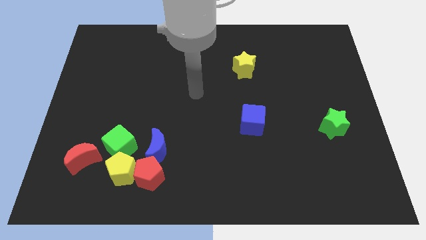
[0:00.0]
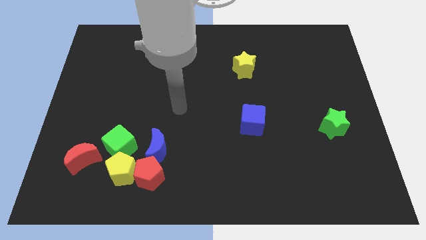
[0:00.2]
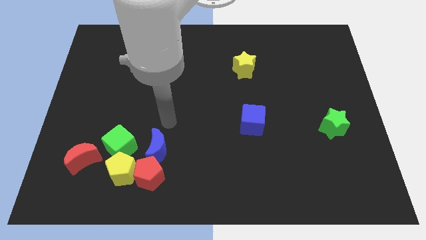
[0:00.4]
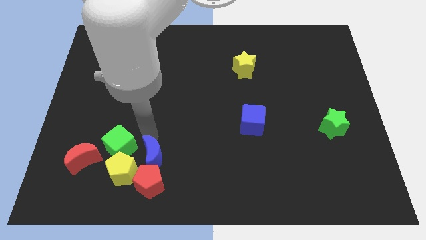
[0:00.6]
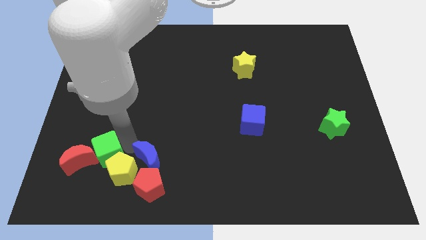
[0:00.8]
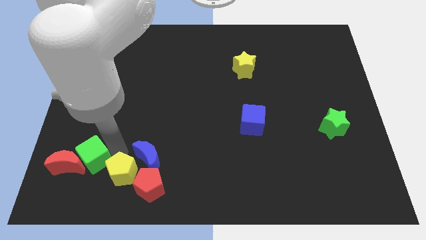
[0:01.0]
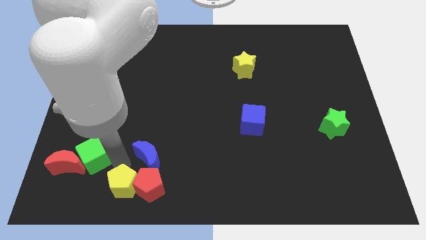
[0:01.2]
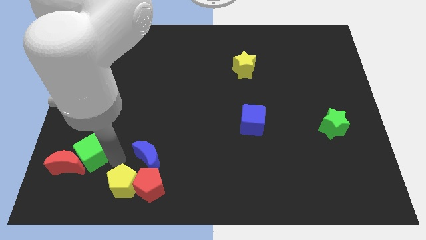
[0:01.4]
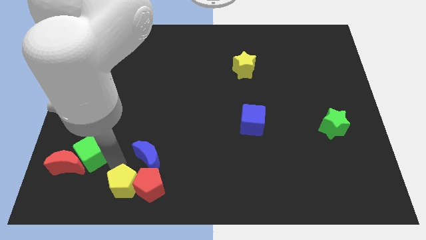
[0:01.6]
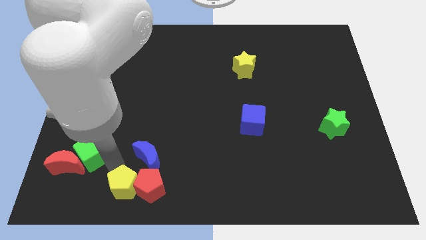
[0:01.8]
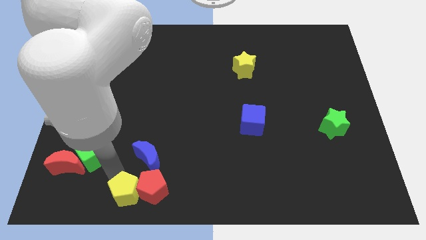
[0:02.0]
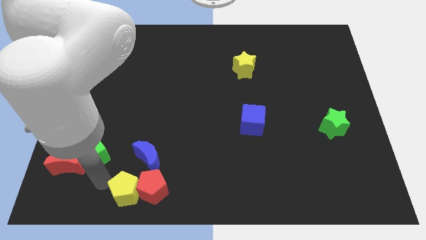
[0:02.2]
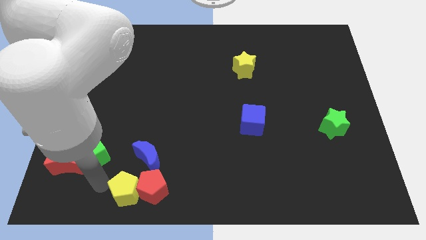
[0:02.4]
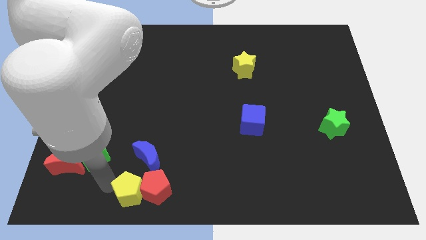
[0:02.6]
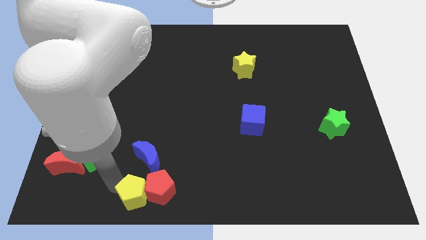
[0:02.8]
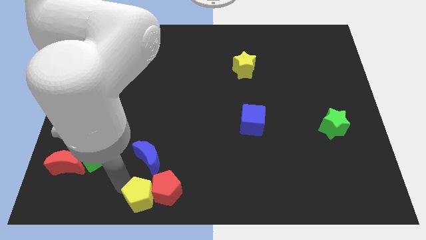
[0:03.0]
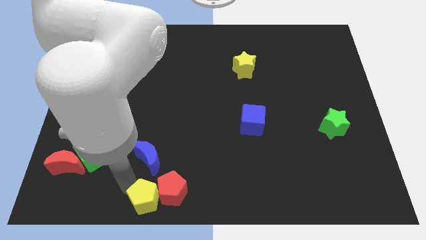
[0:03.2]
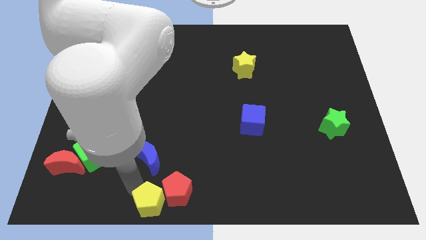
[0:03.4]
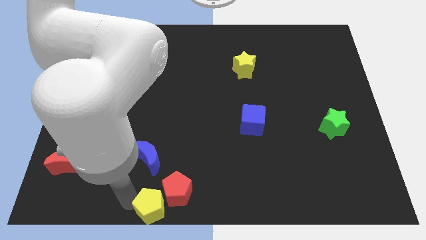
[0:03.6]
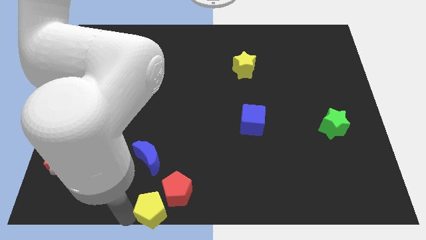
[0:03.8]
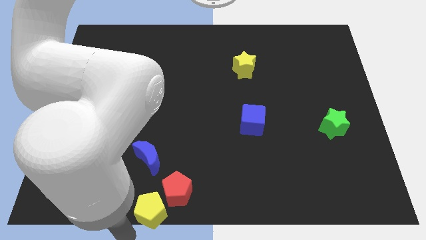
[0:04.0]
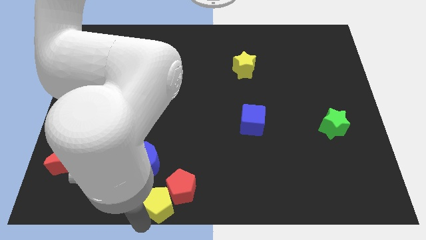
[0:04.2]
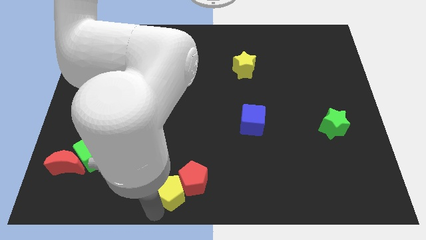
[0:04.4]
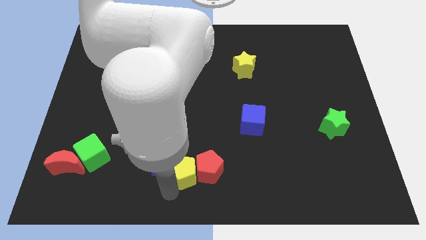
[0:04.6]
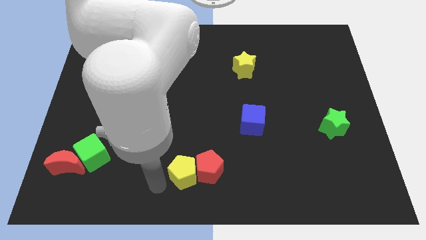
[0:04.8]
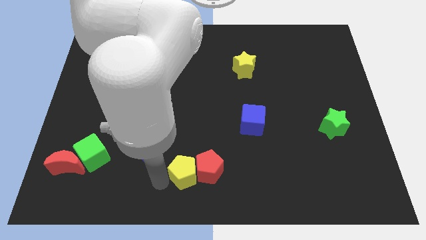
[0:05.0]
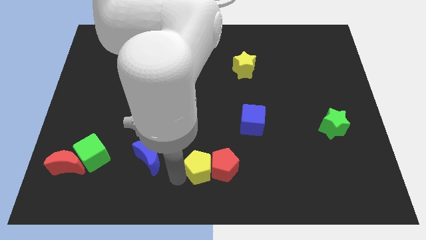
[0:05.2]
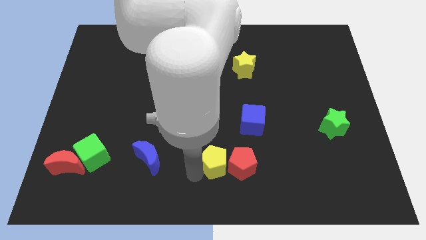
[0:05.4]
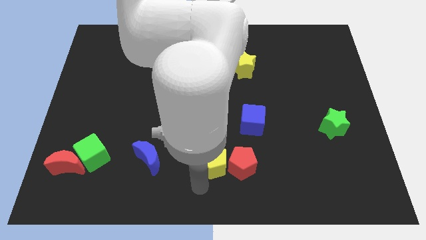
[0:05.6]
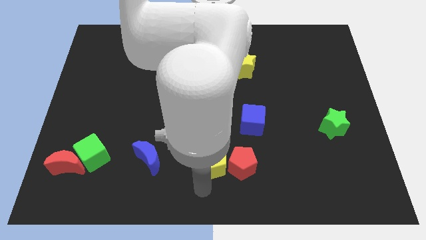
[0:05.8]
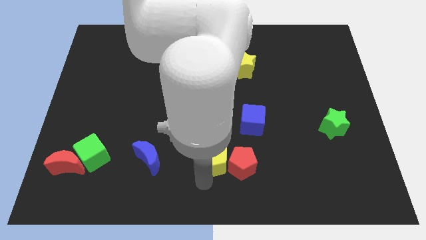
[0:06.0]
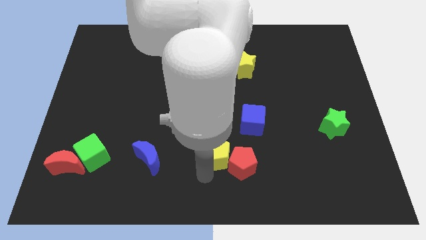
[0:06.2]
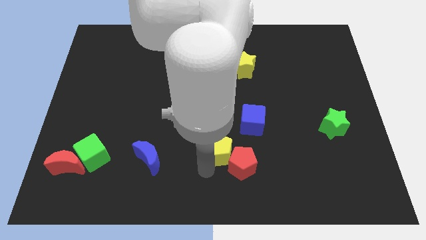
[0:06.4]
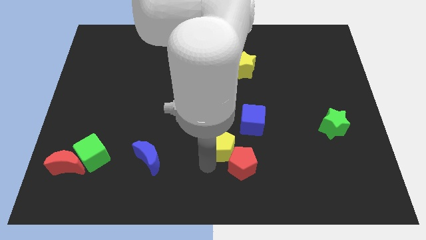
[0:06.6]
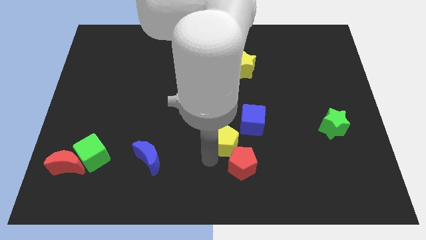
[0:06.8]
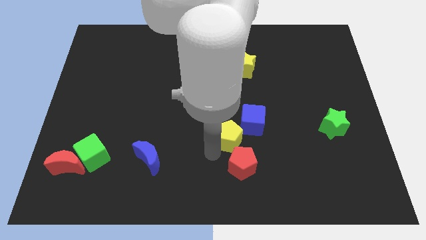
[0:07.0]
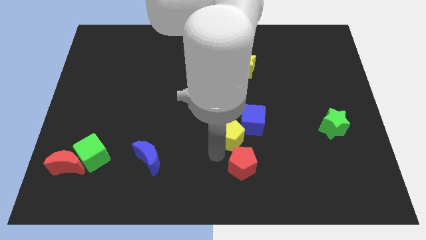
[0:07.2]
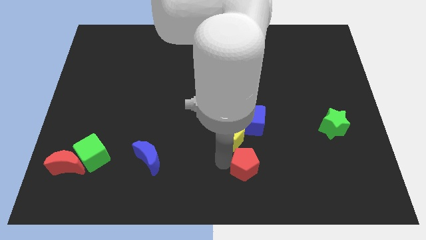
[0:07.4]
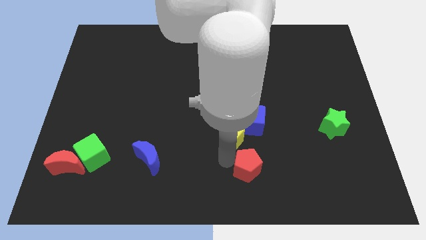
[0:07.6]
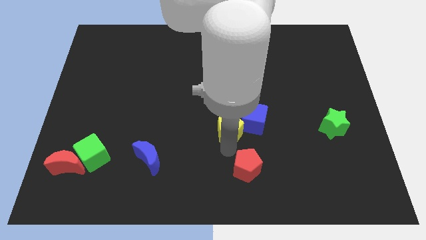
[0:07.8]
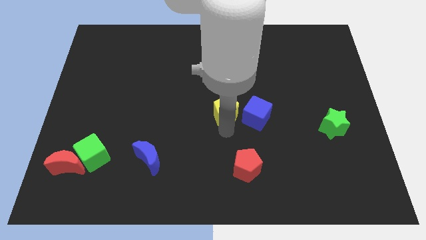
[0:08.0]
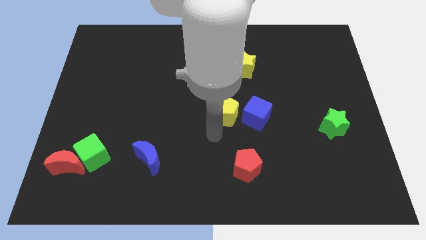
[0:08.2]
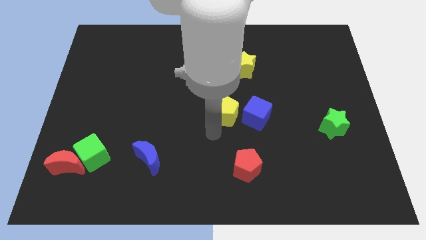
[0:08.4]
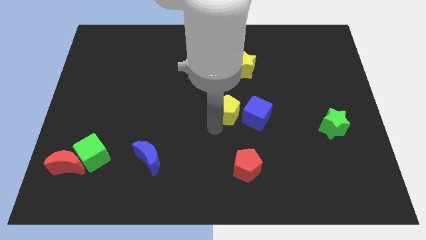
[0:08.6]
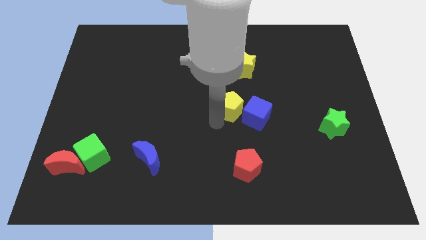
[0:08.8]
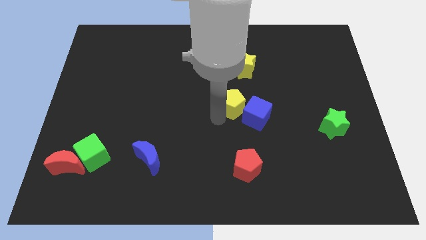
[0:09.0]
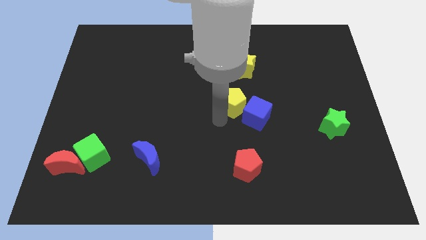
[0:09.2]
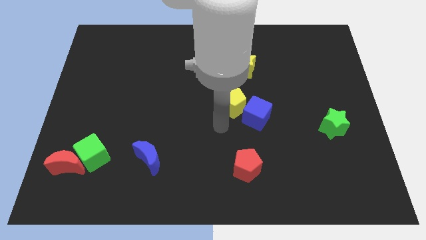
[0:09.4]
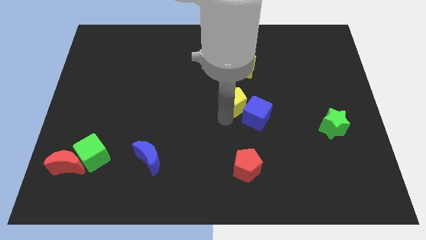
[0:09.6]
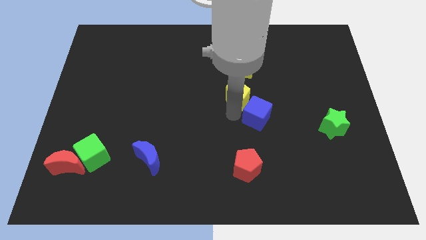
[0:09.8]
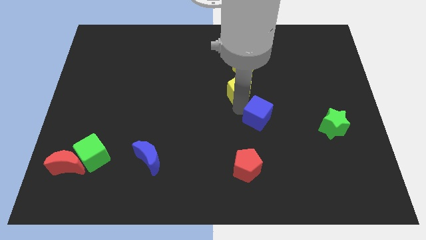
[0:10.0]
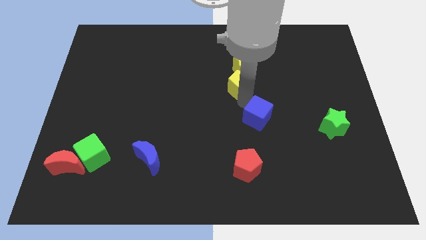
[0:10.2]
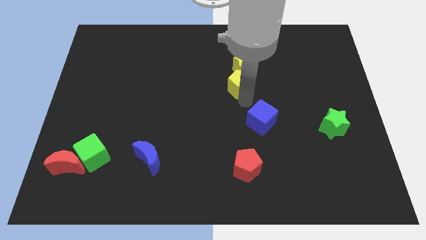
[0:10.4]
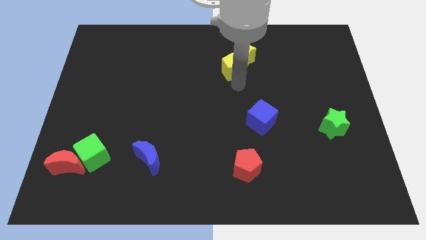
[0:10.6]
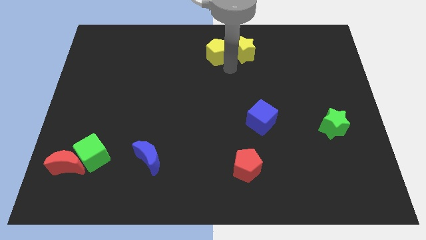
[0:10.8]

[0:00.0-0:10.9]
put the yellow pentagon to the top side

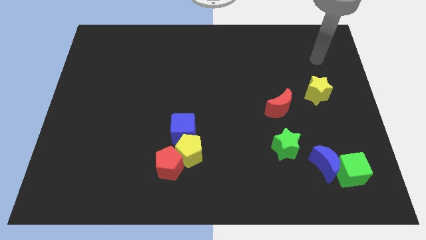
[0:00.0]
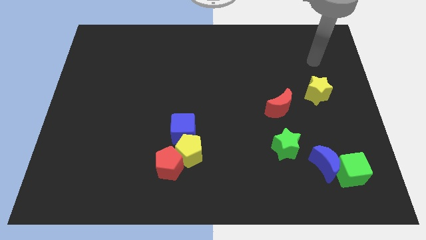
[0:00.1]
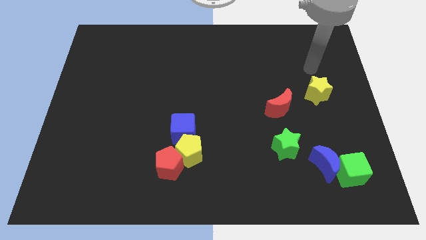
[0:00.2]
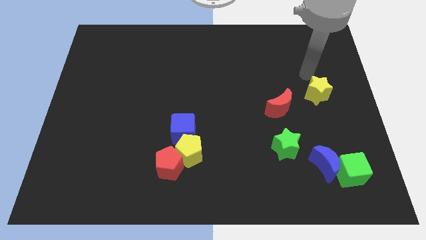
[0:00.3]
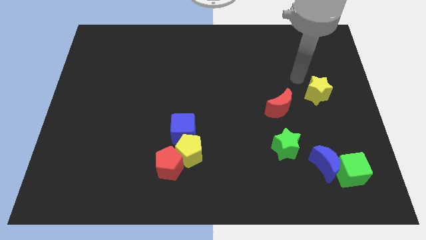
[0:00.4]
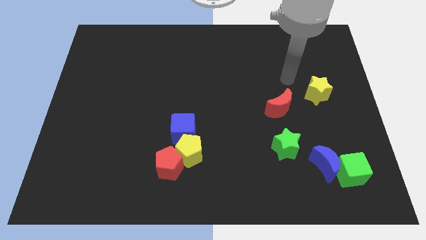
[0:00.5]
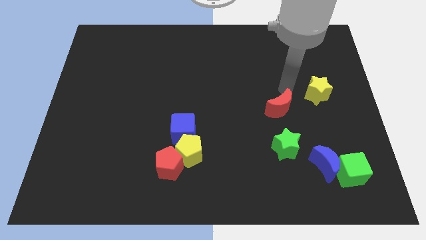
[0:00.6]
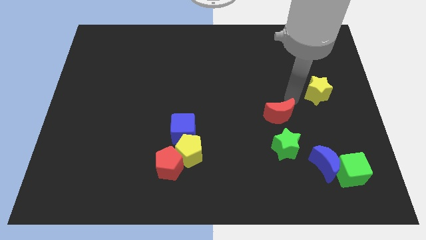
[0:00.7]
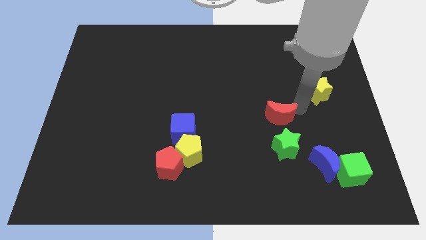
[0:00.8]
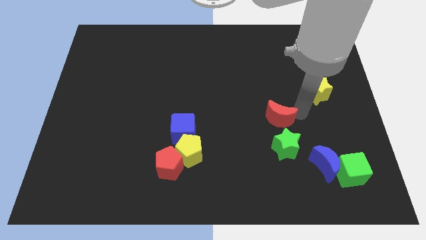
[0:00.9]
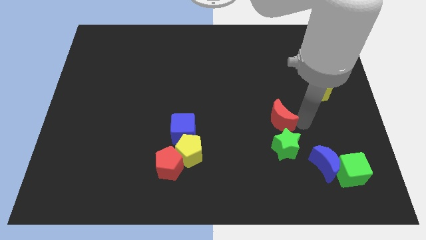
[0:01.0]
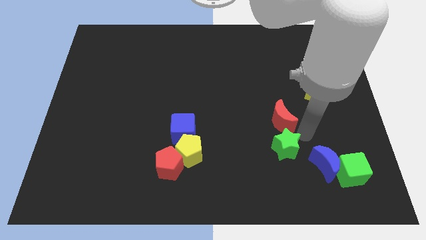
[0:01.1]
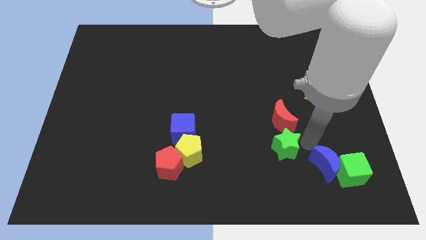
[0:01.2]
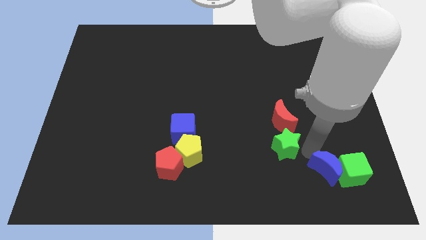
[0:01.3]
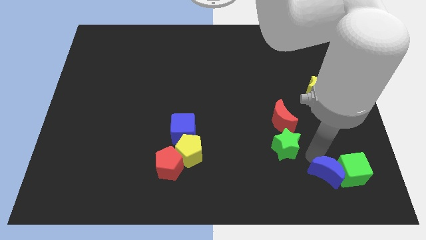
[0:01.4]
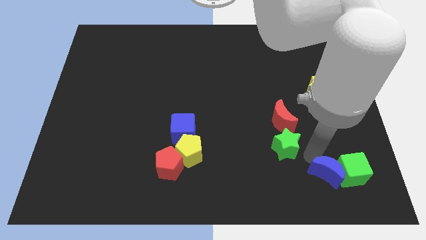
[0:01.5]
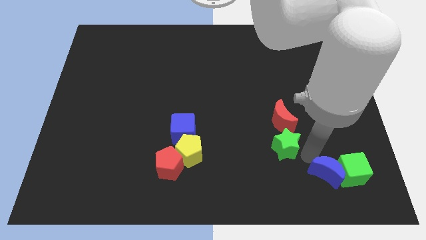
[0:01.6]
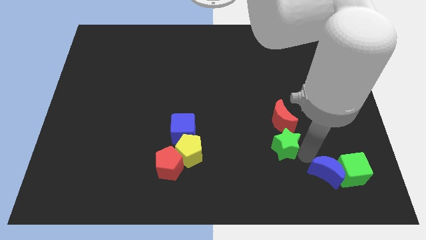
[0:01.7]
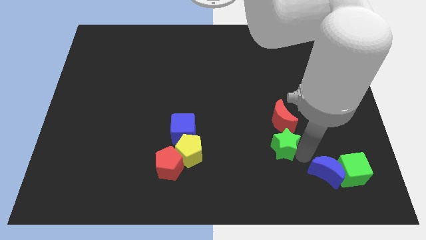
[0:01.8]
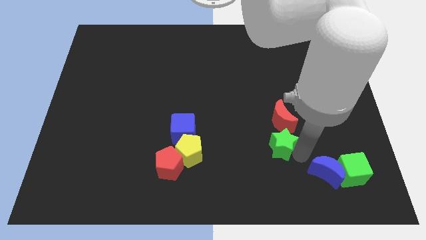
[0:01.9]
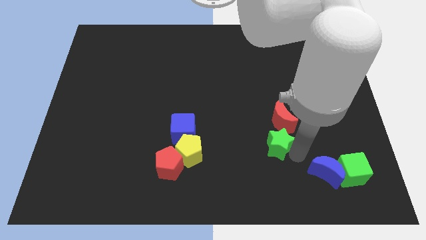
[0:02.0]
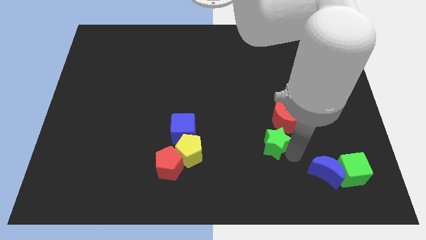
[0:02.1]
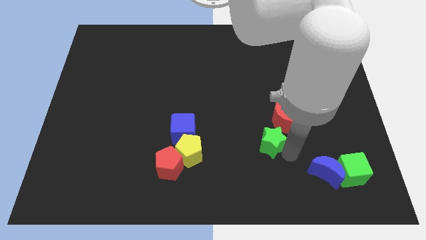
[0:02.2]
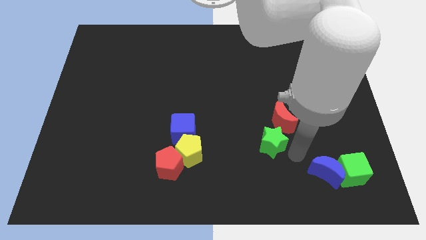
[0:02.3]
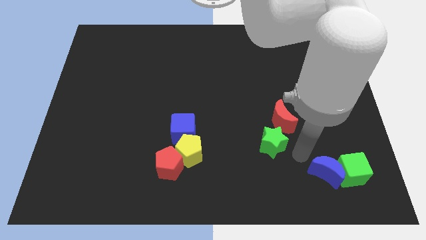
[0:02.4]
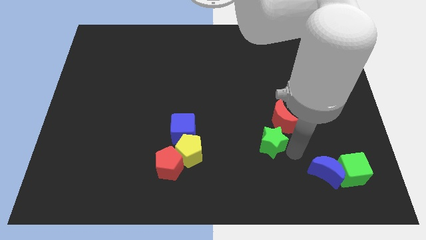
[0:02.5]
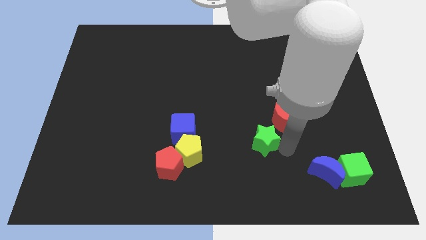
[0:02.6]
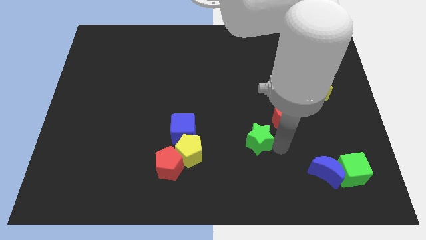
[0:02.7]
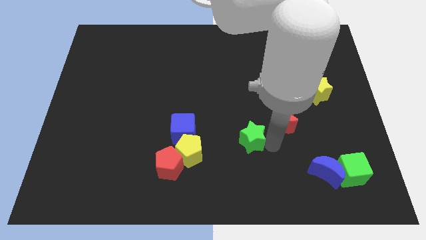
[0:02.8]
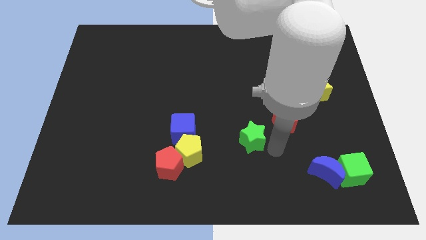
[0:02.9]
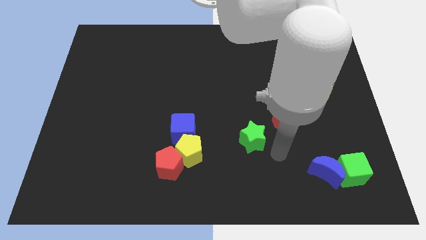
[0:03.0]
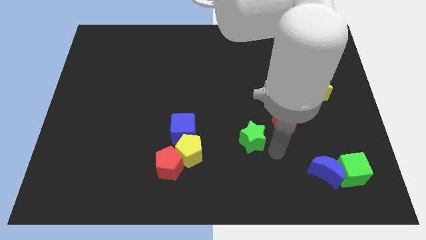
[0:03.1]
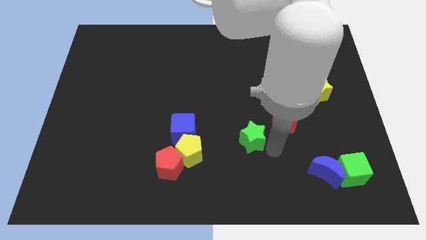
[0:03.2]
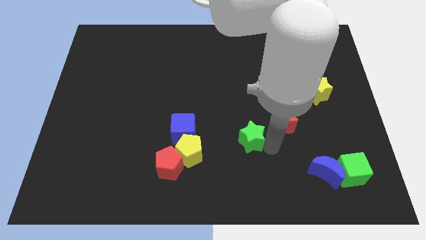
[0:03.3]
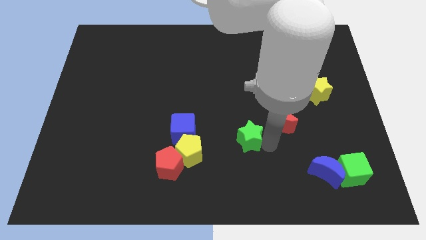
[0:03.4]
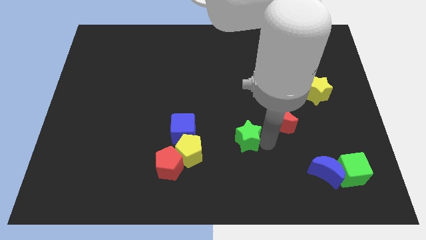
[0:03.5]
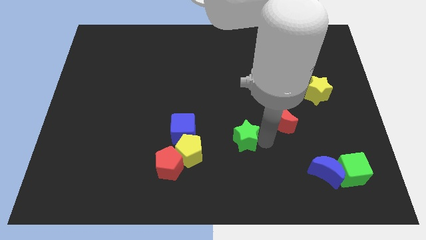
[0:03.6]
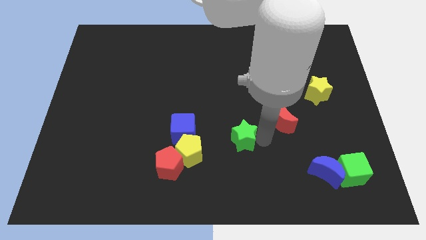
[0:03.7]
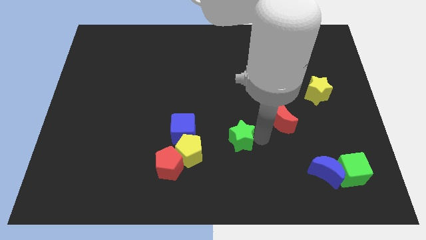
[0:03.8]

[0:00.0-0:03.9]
push the green star to the middle
